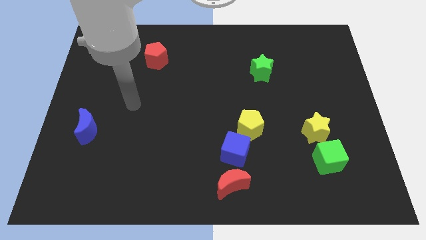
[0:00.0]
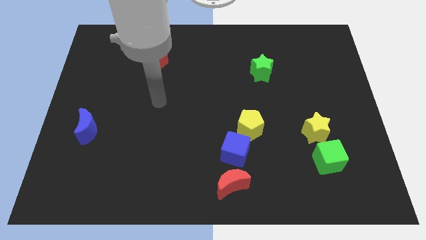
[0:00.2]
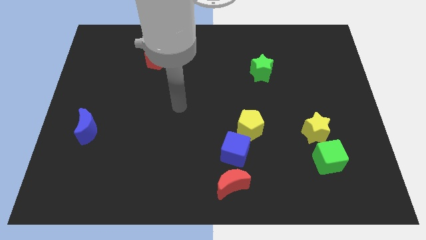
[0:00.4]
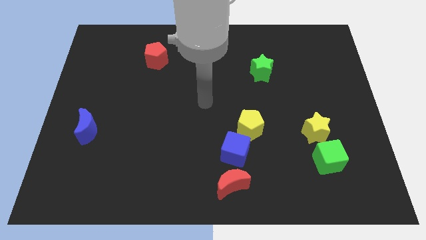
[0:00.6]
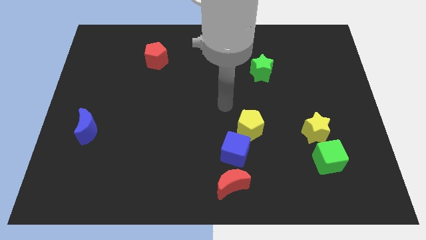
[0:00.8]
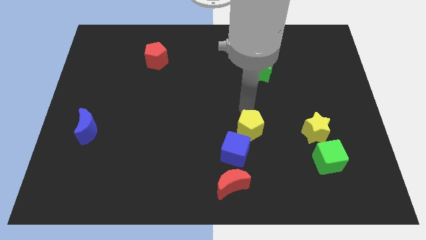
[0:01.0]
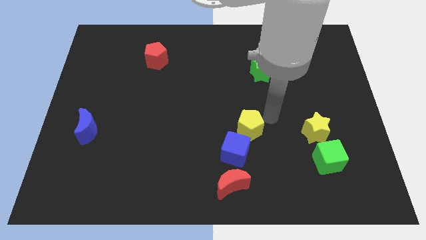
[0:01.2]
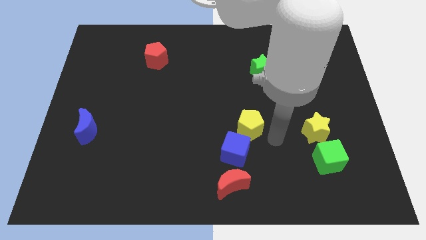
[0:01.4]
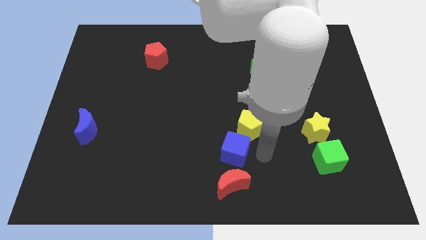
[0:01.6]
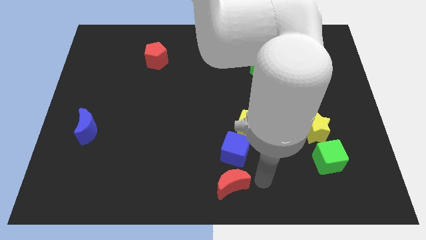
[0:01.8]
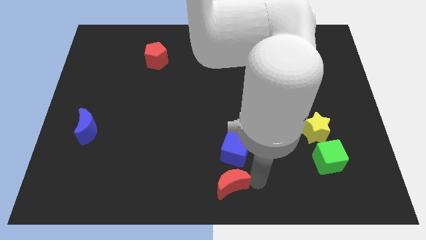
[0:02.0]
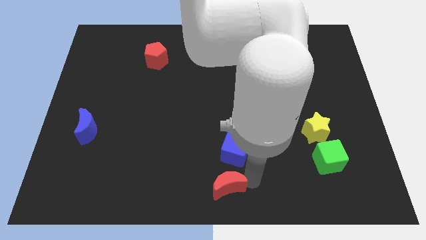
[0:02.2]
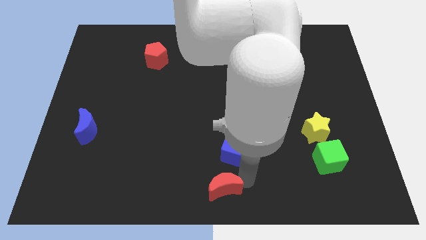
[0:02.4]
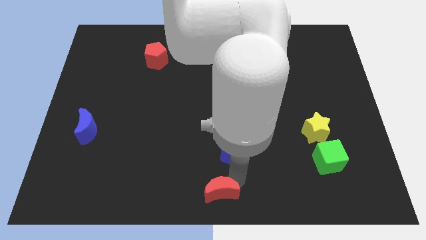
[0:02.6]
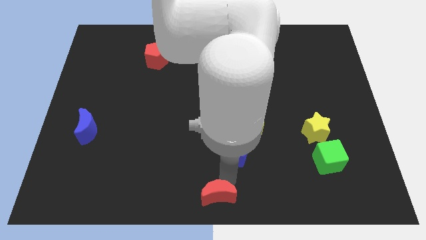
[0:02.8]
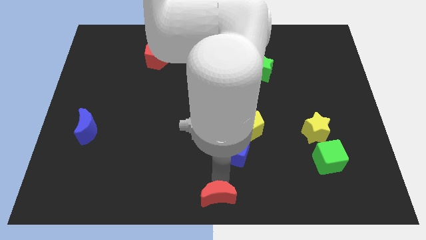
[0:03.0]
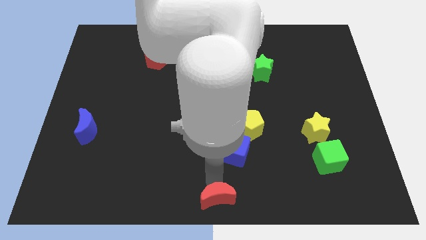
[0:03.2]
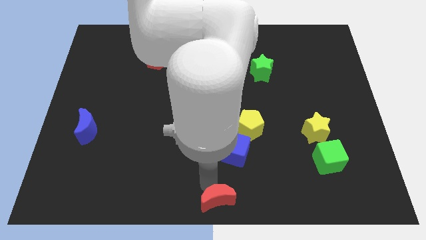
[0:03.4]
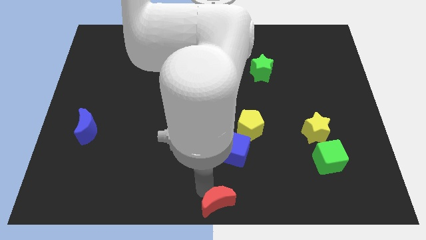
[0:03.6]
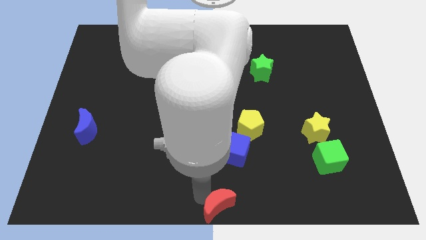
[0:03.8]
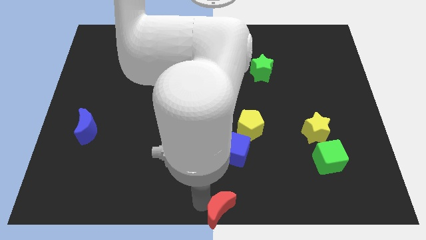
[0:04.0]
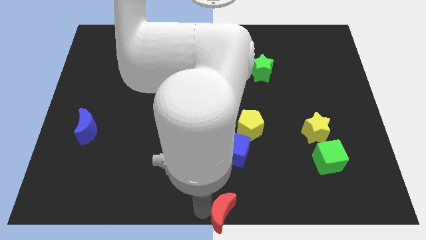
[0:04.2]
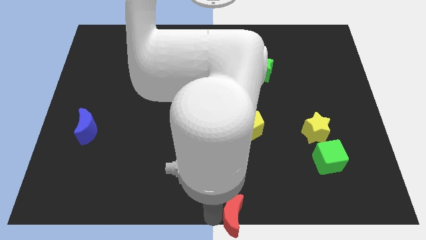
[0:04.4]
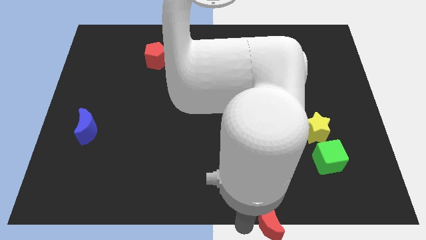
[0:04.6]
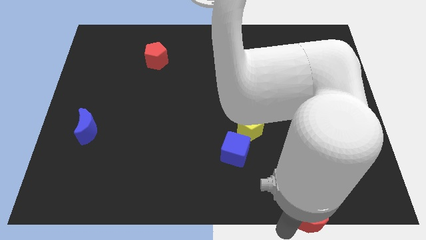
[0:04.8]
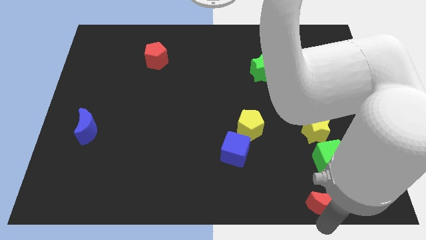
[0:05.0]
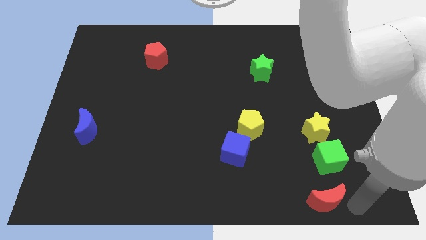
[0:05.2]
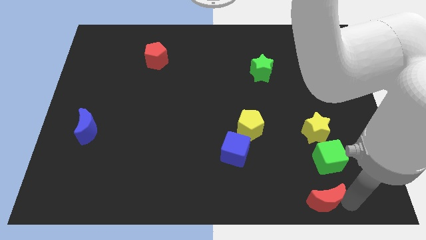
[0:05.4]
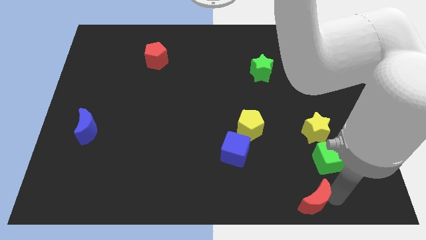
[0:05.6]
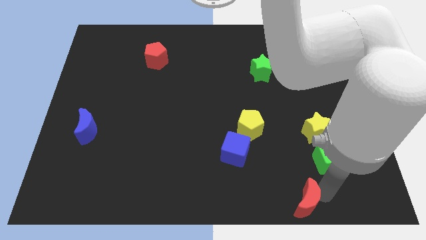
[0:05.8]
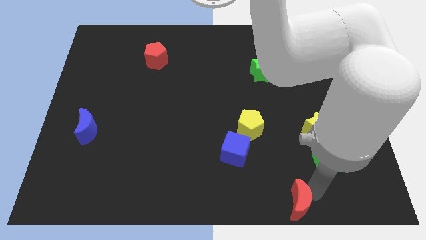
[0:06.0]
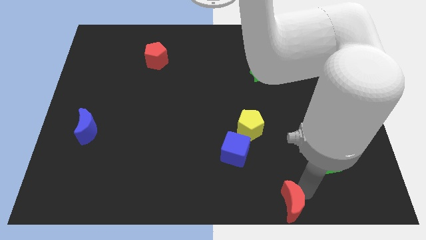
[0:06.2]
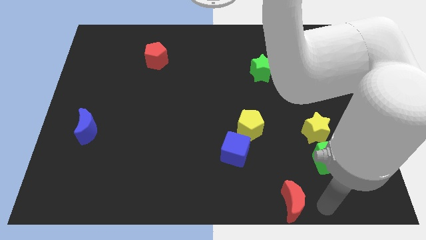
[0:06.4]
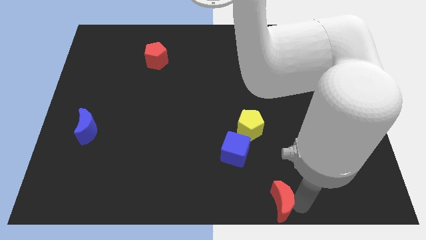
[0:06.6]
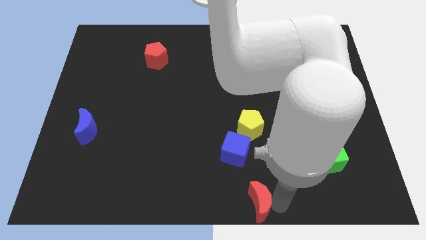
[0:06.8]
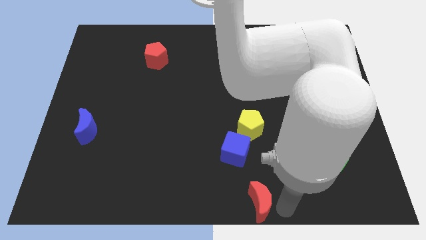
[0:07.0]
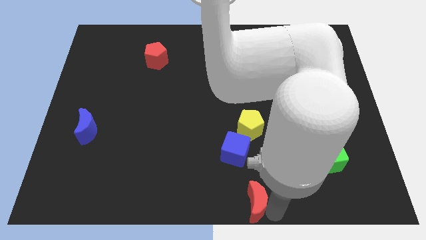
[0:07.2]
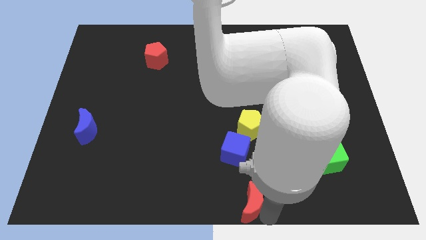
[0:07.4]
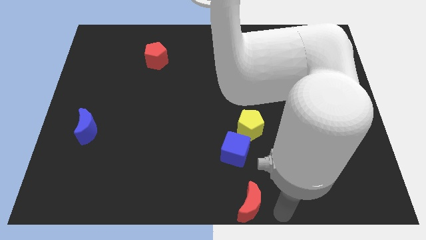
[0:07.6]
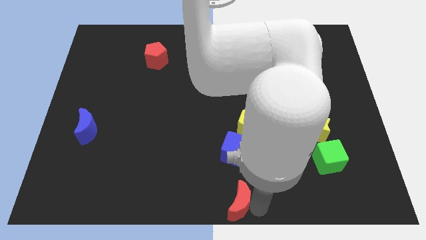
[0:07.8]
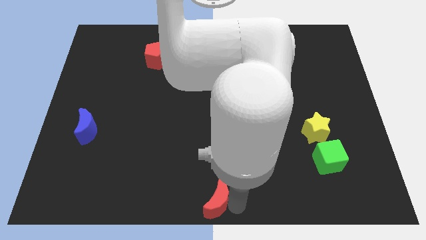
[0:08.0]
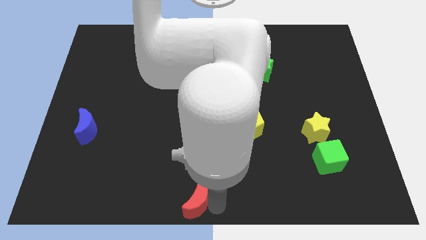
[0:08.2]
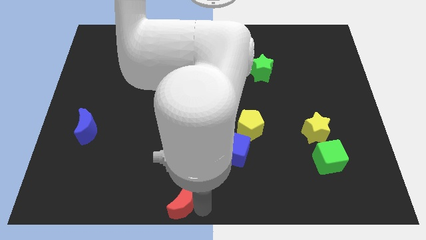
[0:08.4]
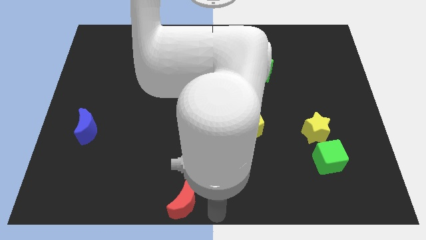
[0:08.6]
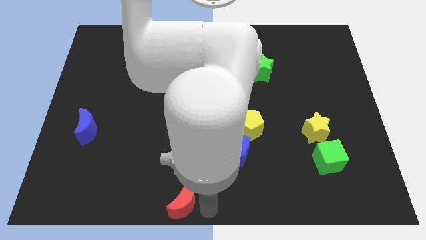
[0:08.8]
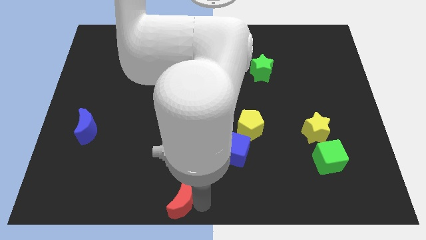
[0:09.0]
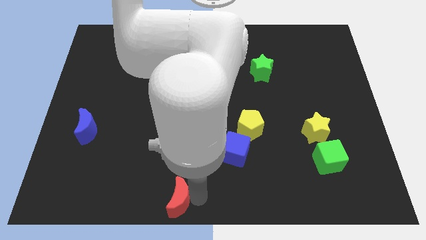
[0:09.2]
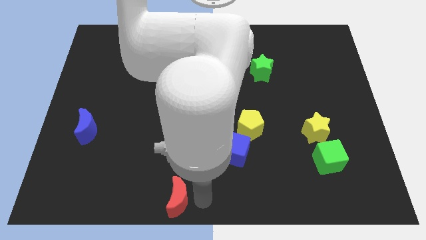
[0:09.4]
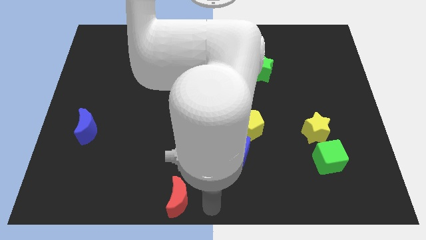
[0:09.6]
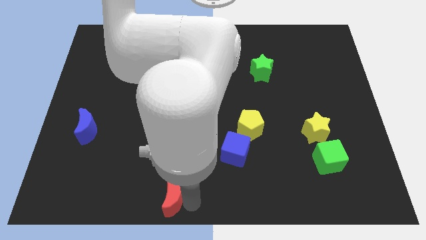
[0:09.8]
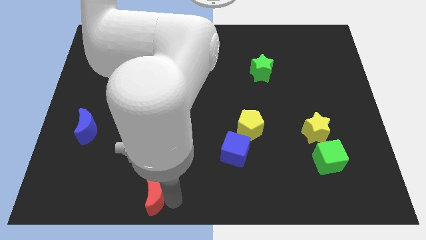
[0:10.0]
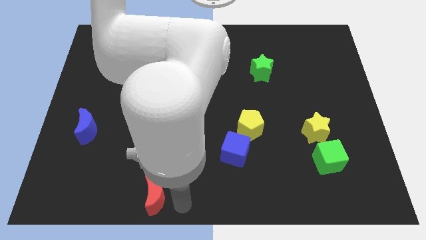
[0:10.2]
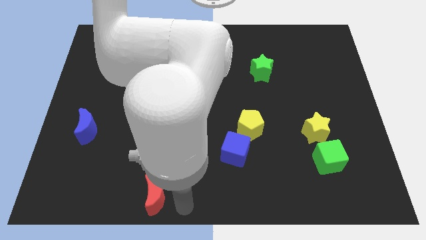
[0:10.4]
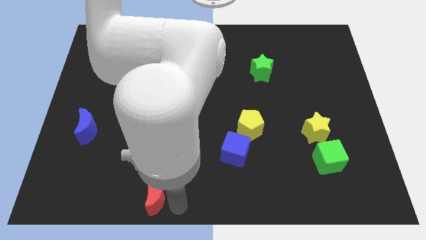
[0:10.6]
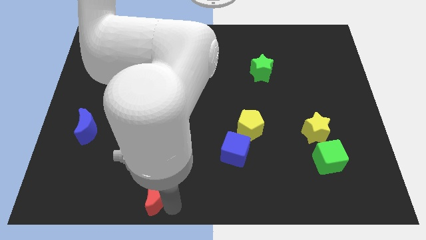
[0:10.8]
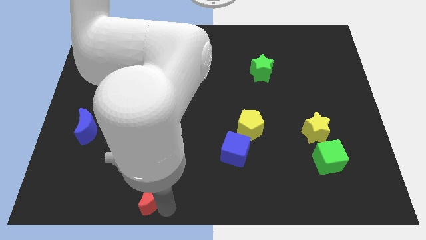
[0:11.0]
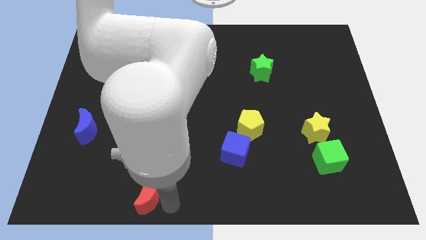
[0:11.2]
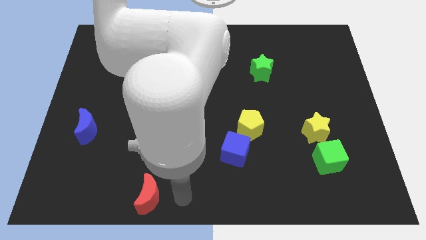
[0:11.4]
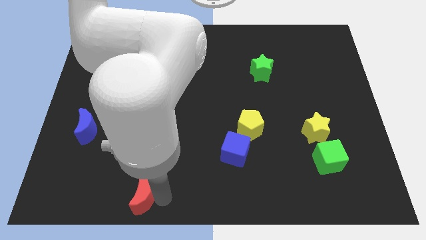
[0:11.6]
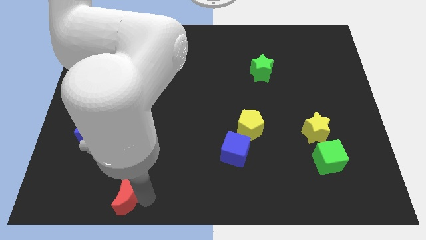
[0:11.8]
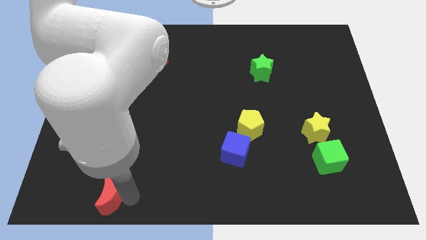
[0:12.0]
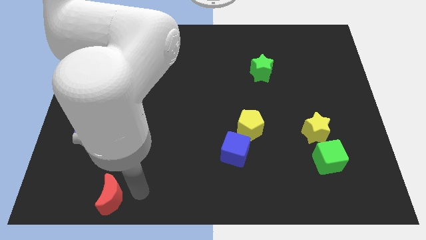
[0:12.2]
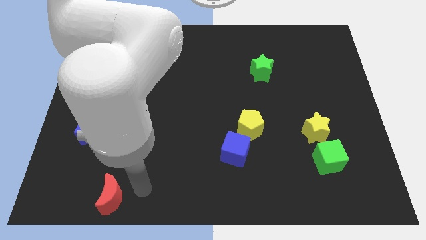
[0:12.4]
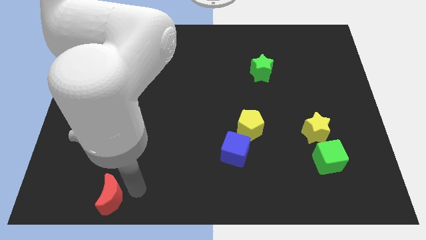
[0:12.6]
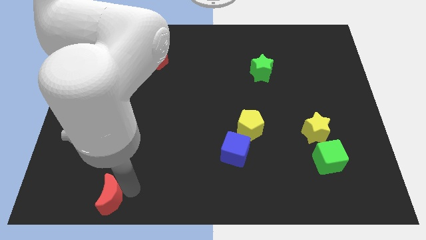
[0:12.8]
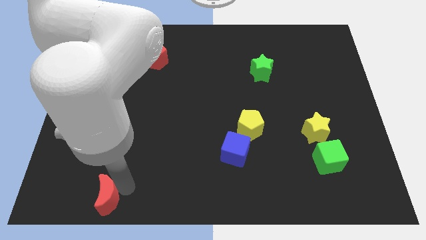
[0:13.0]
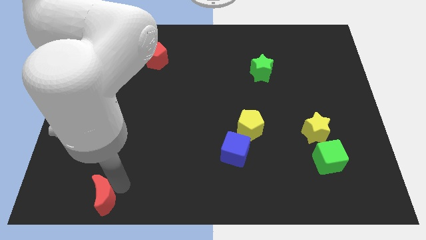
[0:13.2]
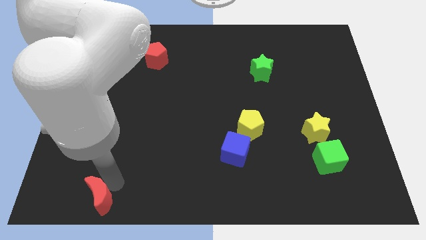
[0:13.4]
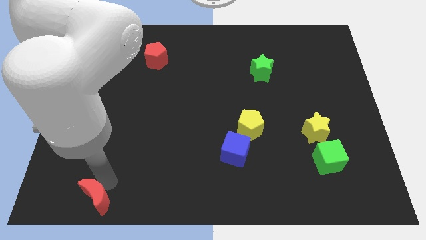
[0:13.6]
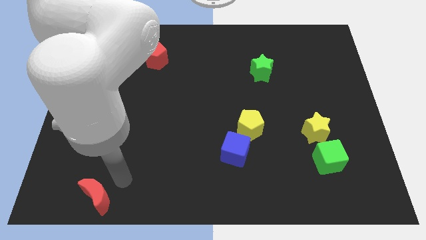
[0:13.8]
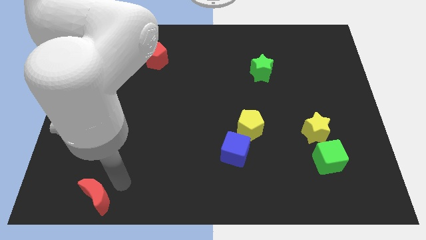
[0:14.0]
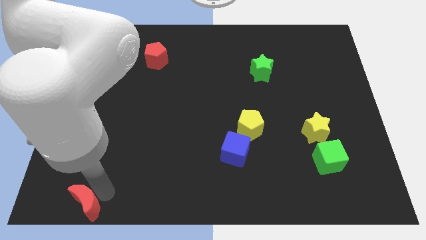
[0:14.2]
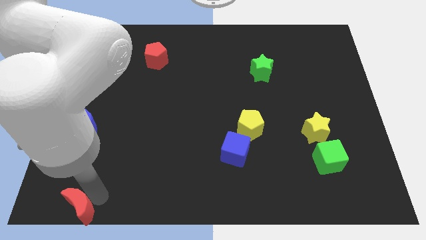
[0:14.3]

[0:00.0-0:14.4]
put the red moon to the bottom left
